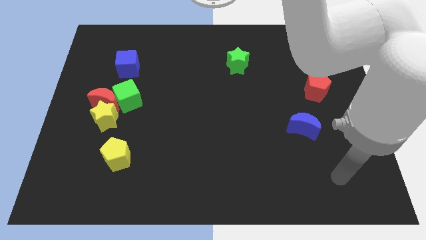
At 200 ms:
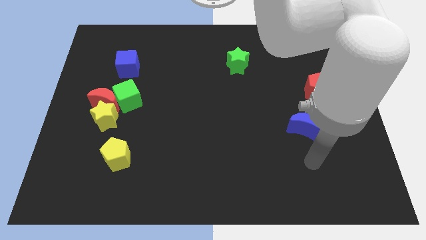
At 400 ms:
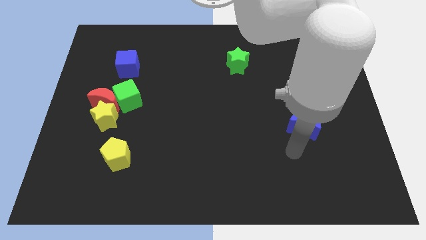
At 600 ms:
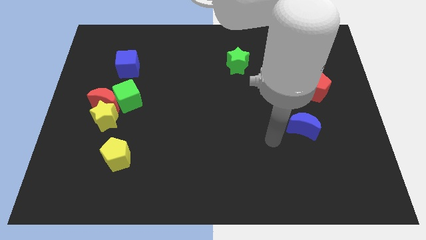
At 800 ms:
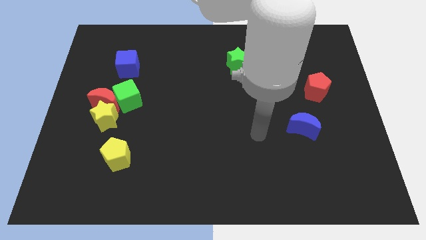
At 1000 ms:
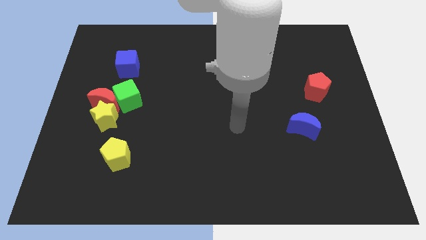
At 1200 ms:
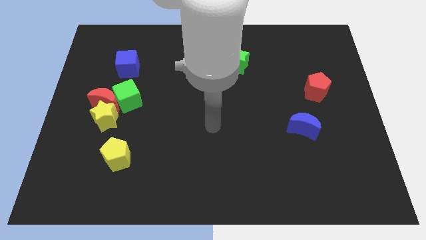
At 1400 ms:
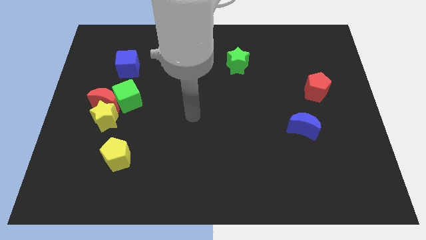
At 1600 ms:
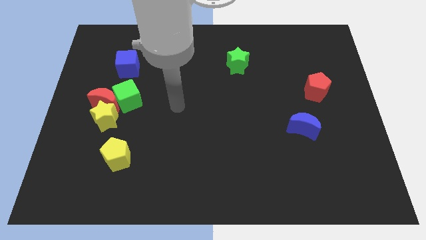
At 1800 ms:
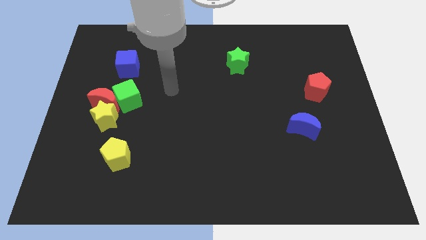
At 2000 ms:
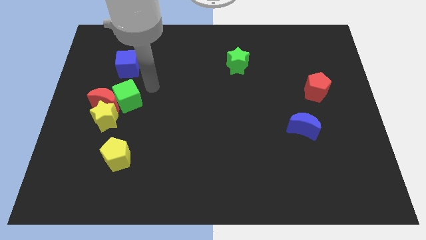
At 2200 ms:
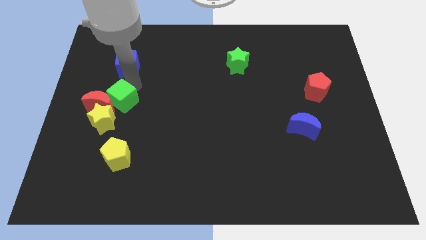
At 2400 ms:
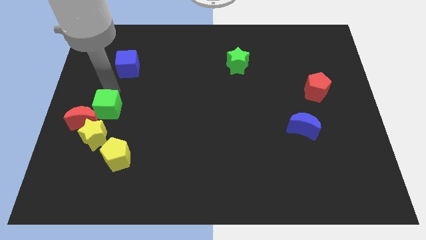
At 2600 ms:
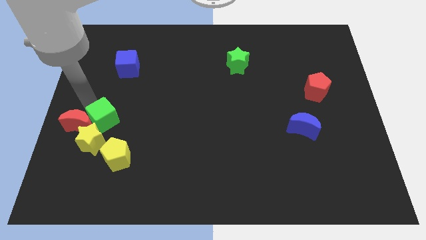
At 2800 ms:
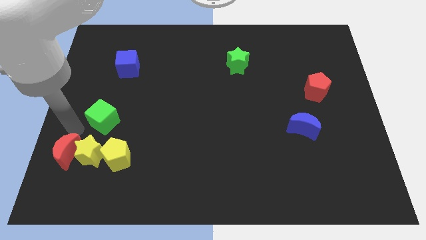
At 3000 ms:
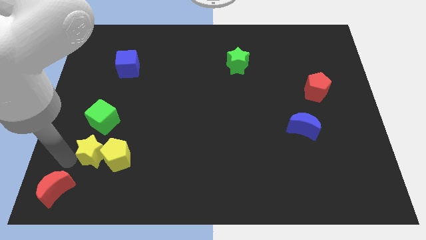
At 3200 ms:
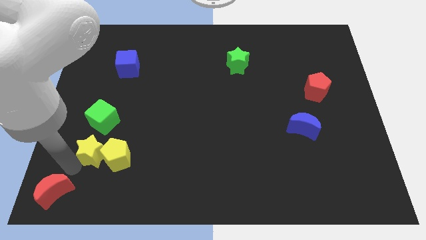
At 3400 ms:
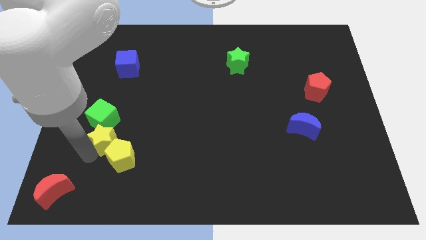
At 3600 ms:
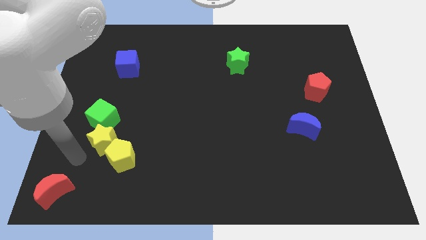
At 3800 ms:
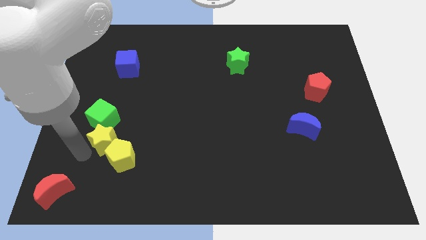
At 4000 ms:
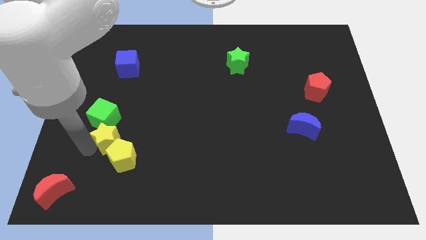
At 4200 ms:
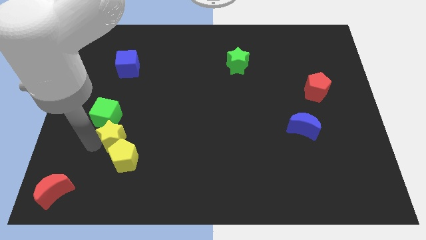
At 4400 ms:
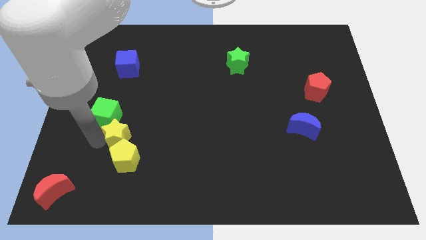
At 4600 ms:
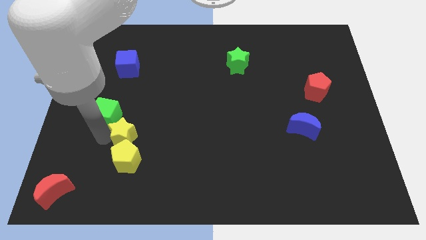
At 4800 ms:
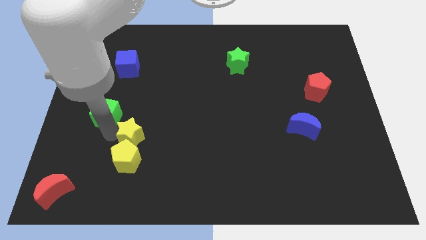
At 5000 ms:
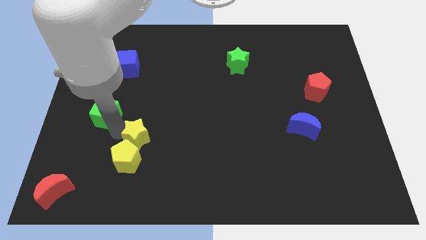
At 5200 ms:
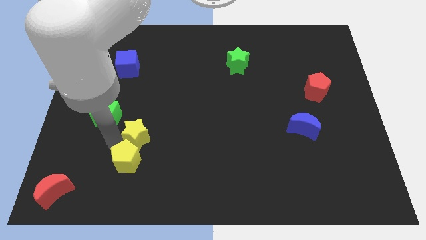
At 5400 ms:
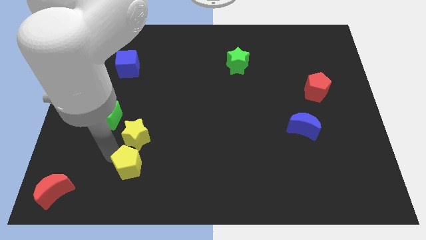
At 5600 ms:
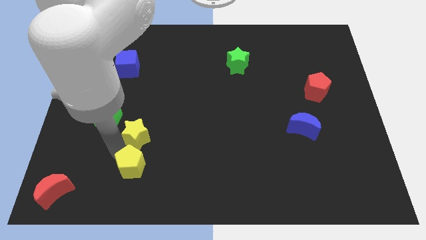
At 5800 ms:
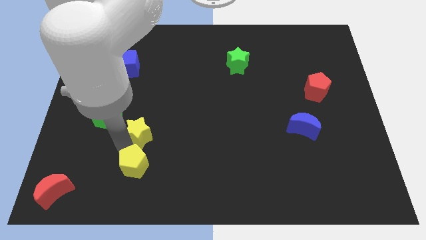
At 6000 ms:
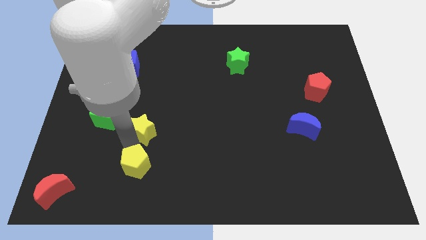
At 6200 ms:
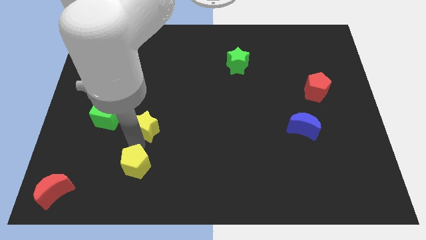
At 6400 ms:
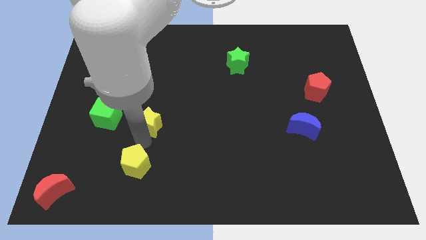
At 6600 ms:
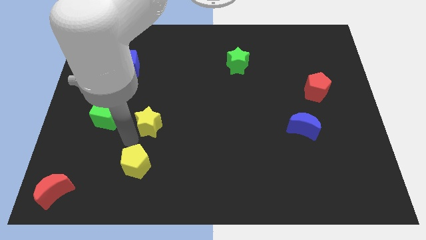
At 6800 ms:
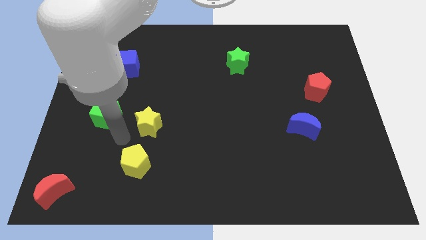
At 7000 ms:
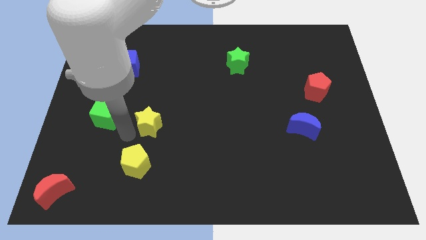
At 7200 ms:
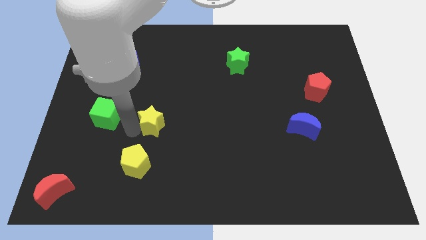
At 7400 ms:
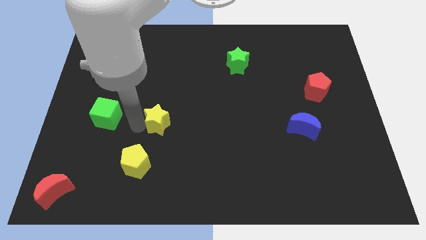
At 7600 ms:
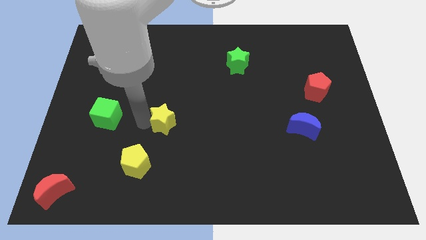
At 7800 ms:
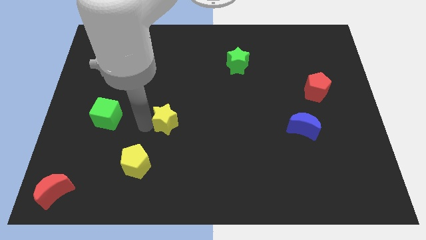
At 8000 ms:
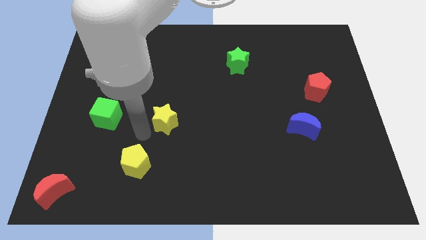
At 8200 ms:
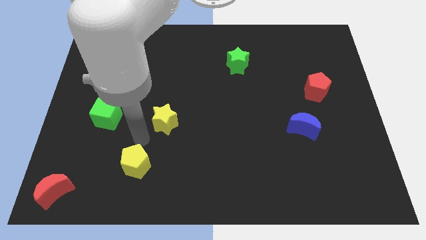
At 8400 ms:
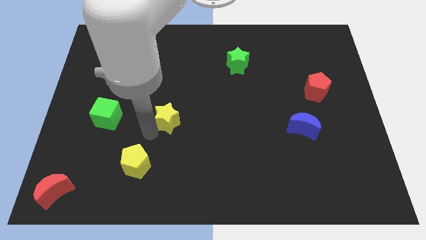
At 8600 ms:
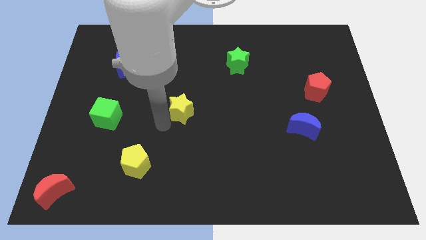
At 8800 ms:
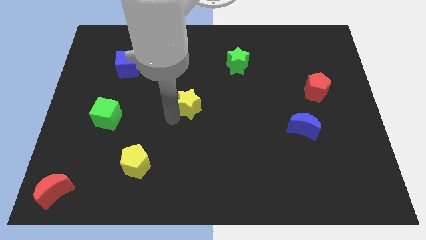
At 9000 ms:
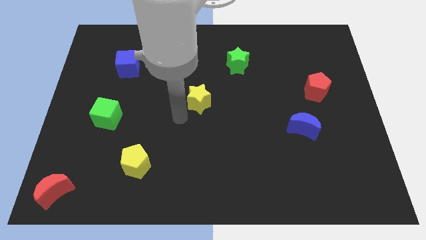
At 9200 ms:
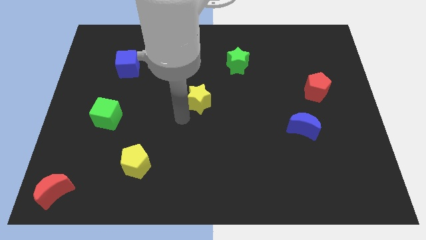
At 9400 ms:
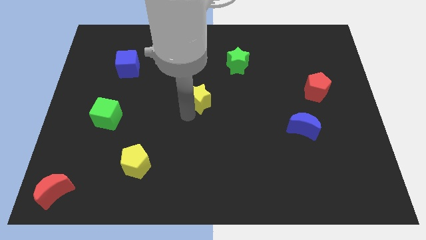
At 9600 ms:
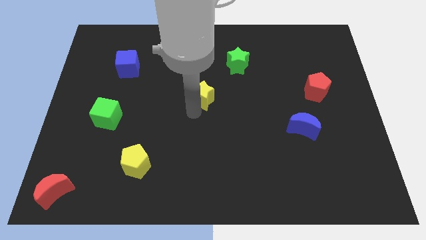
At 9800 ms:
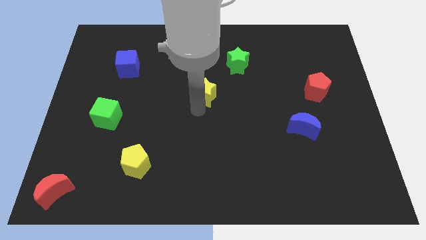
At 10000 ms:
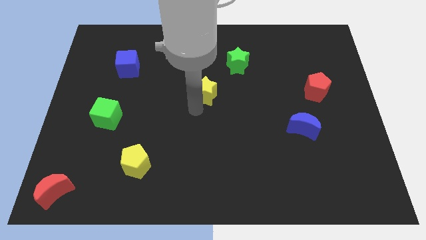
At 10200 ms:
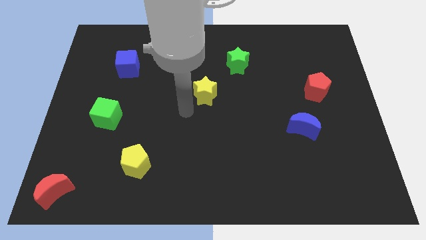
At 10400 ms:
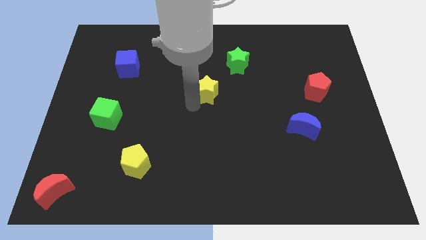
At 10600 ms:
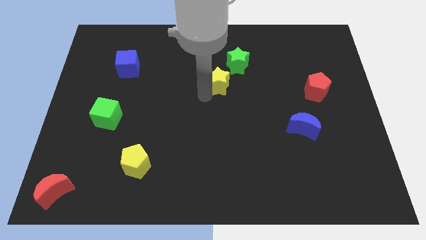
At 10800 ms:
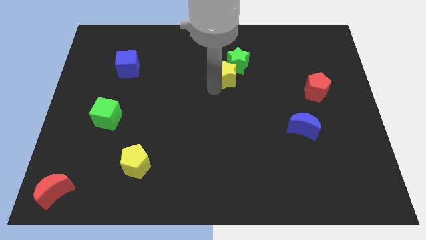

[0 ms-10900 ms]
put the yellow star to the green star

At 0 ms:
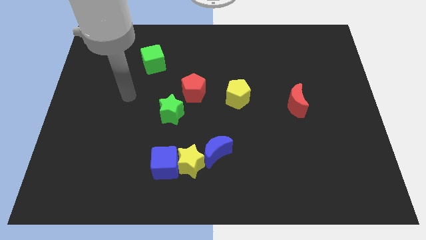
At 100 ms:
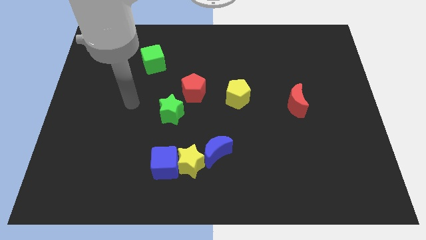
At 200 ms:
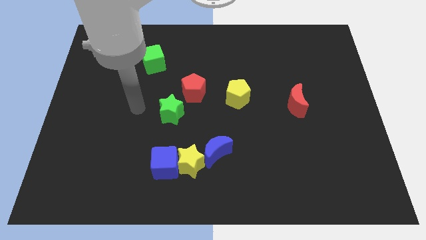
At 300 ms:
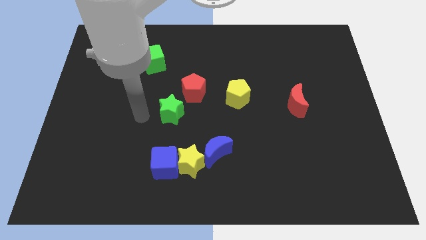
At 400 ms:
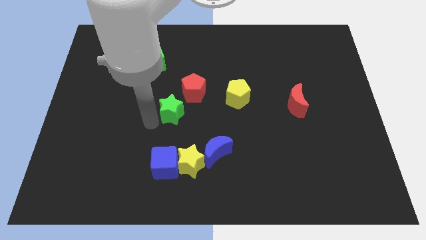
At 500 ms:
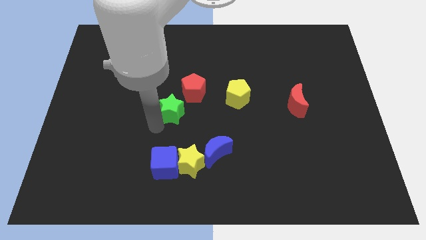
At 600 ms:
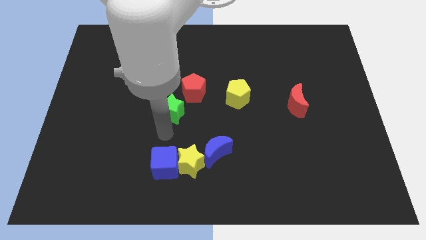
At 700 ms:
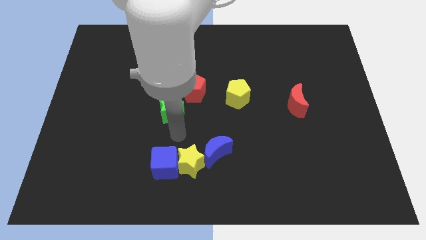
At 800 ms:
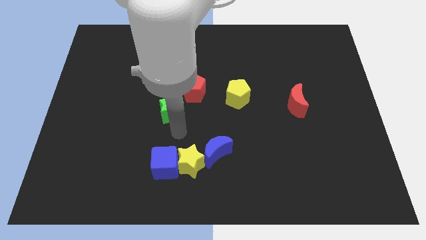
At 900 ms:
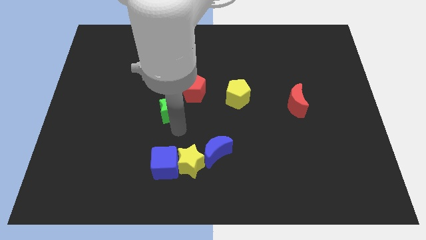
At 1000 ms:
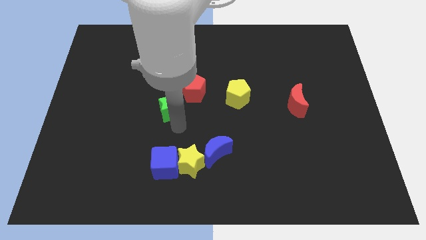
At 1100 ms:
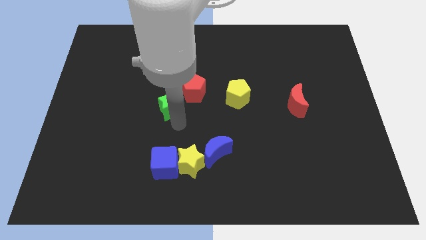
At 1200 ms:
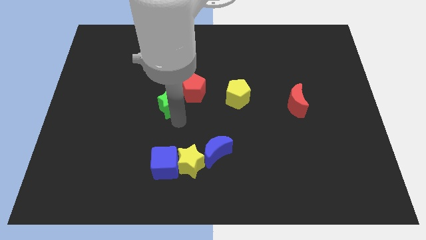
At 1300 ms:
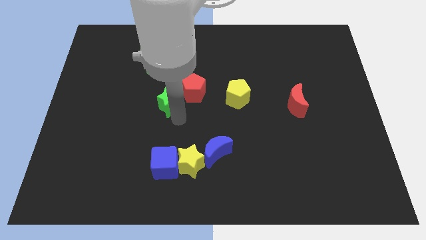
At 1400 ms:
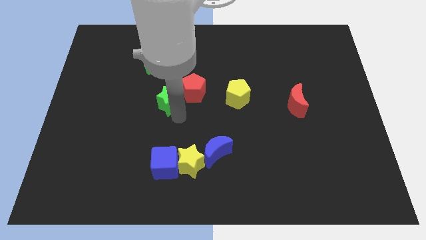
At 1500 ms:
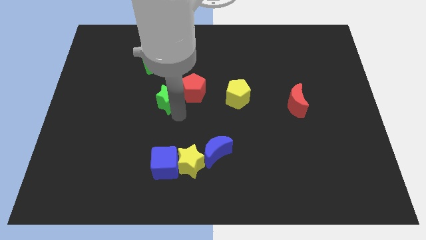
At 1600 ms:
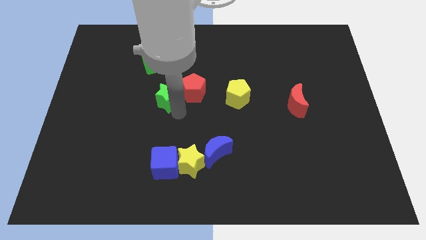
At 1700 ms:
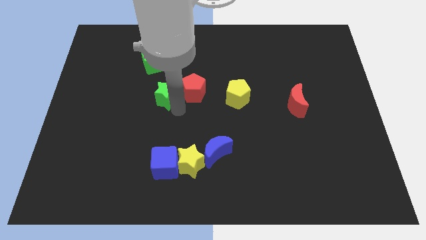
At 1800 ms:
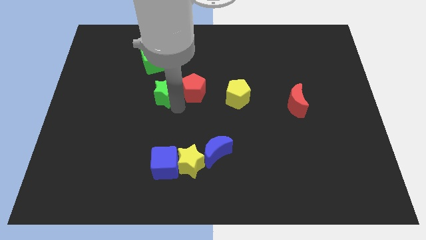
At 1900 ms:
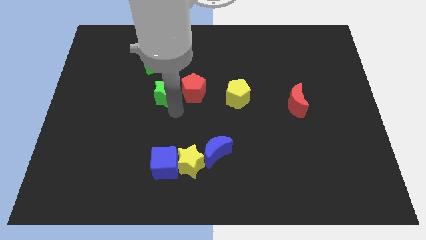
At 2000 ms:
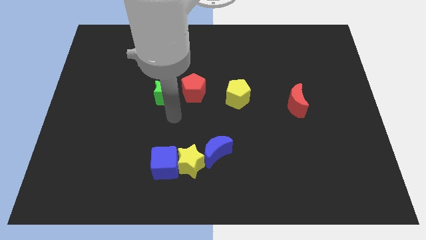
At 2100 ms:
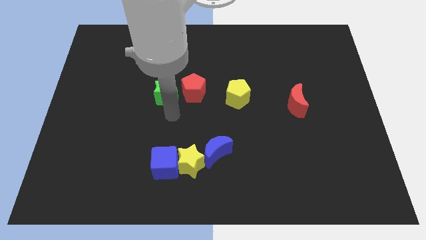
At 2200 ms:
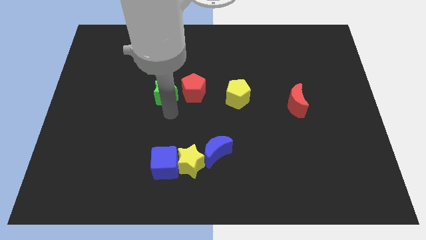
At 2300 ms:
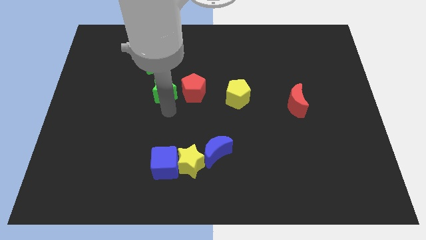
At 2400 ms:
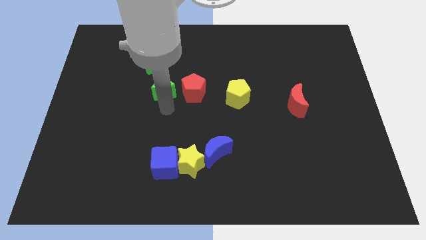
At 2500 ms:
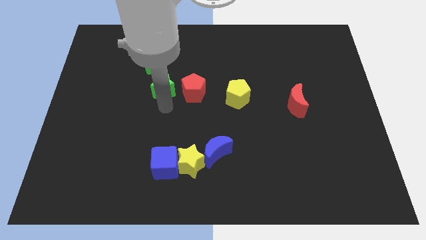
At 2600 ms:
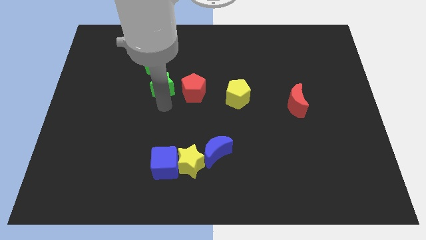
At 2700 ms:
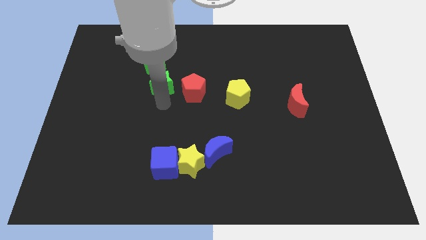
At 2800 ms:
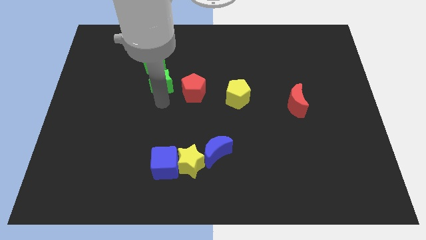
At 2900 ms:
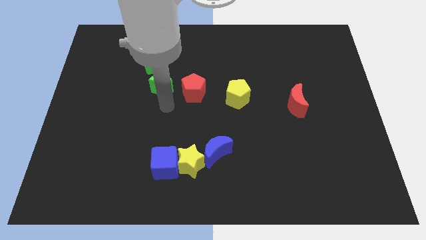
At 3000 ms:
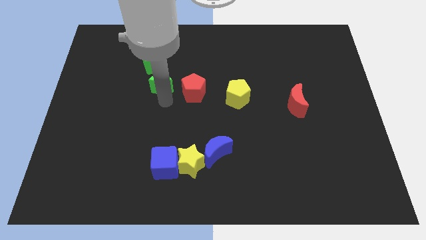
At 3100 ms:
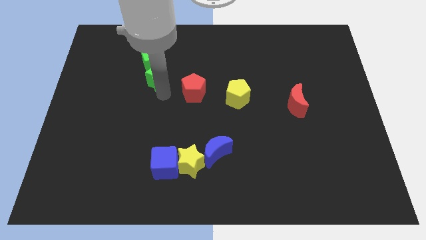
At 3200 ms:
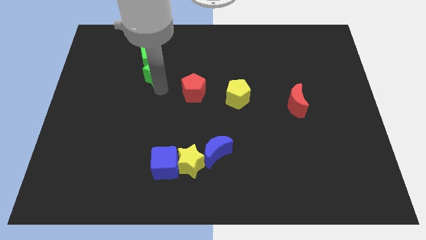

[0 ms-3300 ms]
slide the green star next to the green cube
